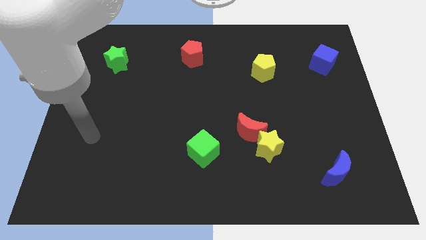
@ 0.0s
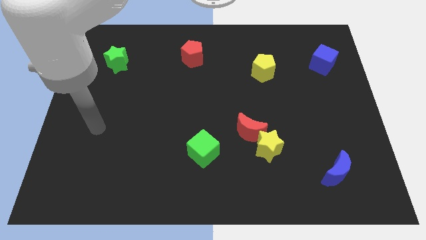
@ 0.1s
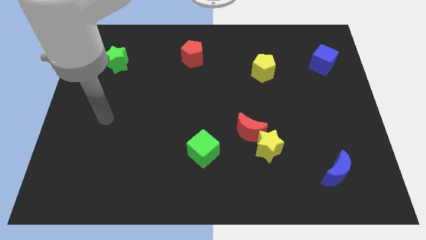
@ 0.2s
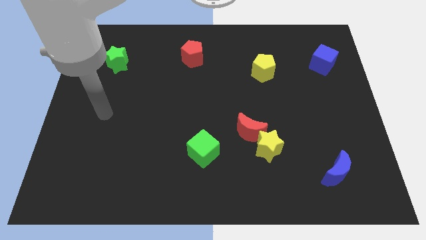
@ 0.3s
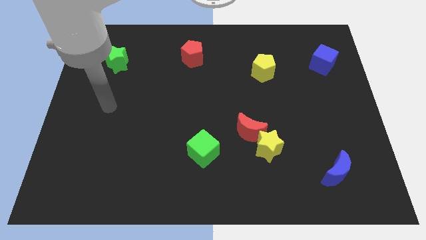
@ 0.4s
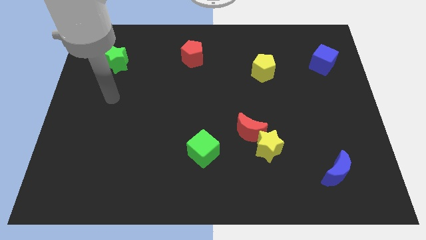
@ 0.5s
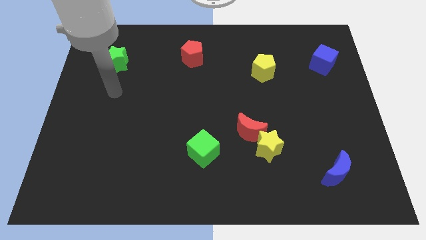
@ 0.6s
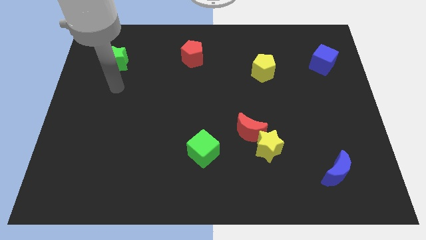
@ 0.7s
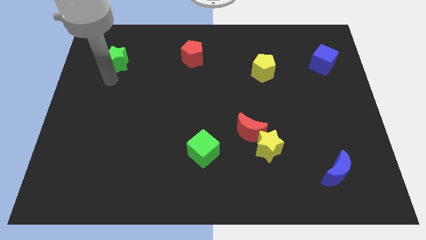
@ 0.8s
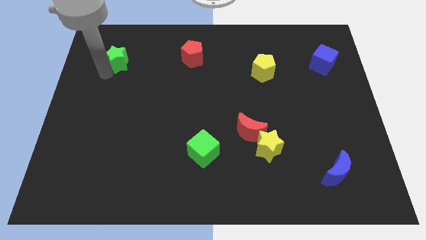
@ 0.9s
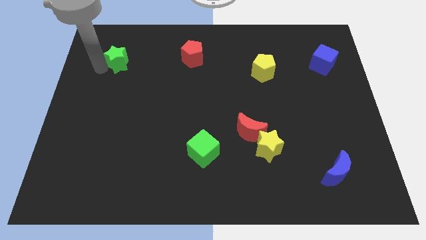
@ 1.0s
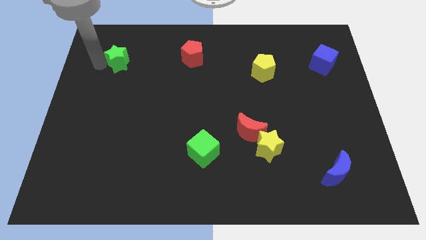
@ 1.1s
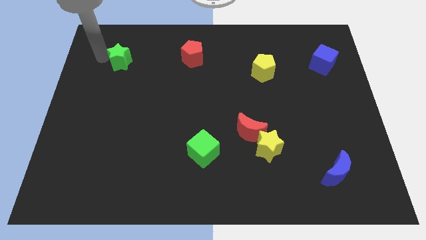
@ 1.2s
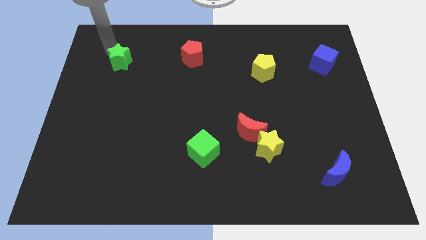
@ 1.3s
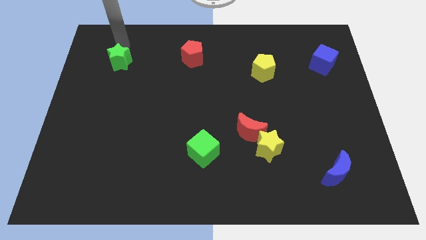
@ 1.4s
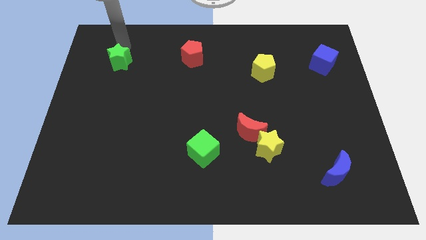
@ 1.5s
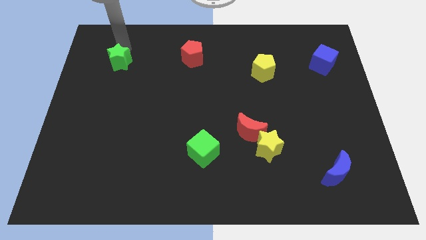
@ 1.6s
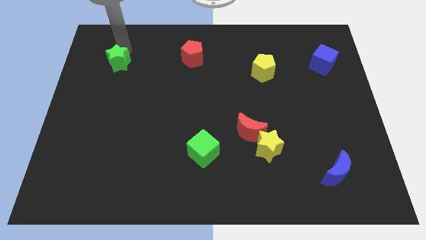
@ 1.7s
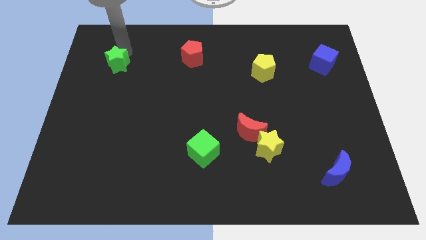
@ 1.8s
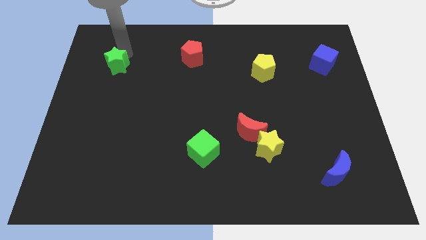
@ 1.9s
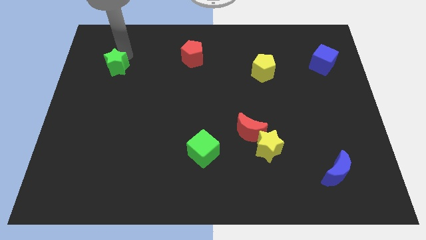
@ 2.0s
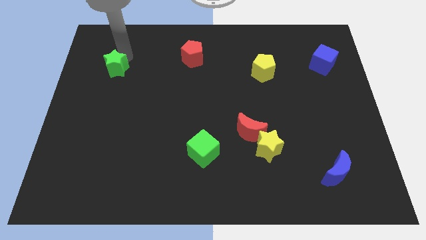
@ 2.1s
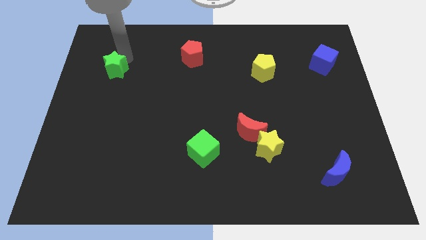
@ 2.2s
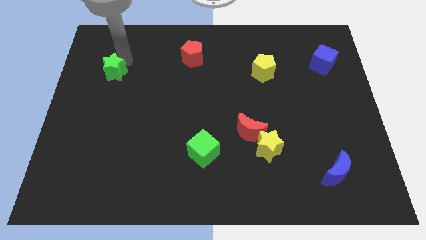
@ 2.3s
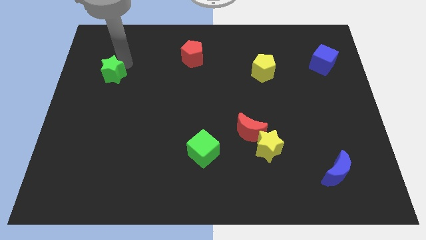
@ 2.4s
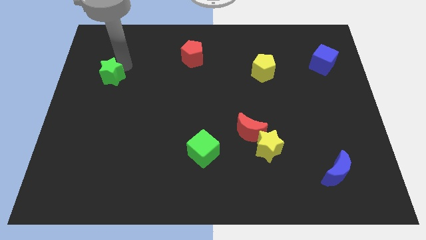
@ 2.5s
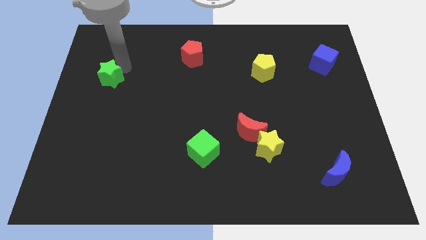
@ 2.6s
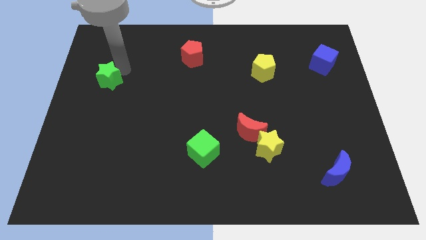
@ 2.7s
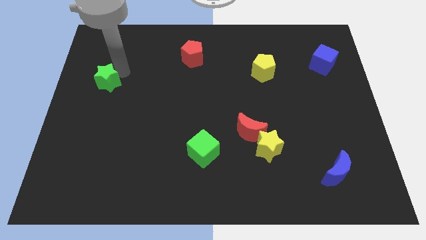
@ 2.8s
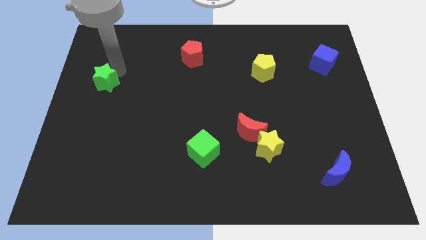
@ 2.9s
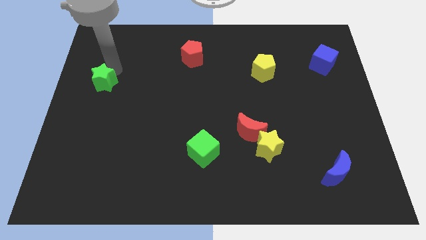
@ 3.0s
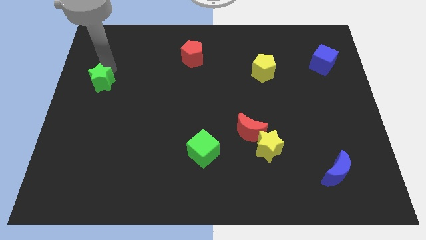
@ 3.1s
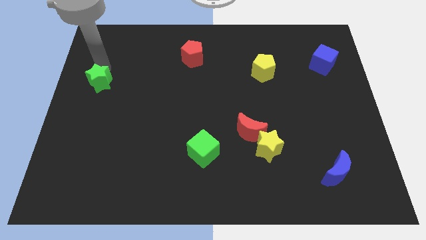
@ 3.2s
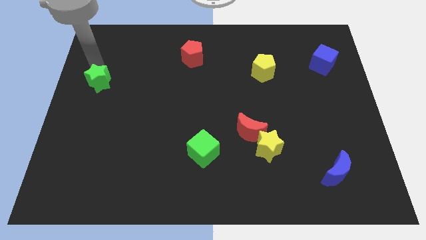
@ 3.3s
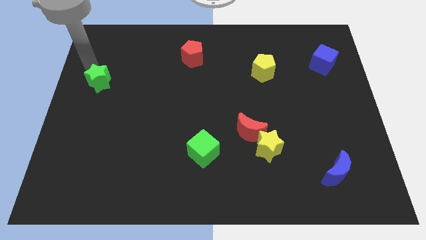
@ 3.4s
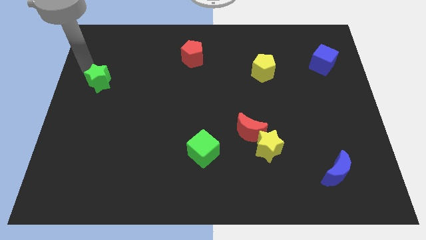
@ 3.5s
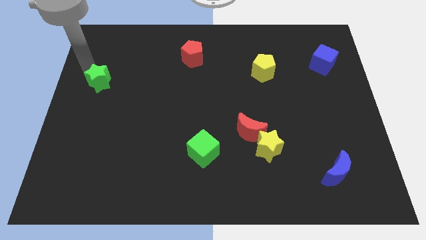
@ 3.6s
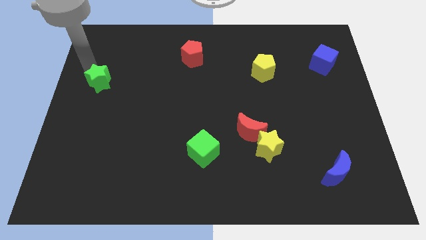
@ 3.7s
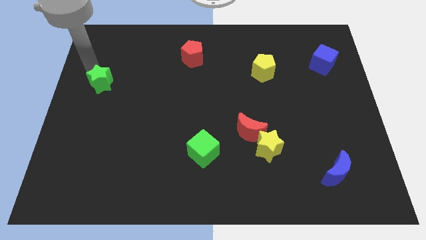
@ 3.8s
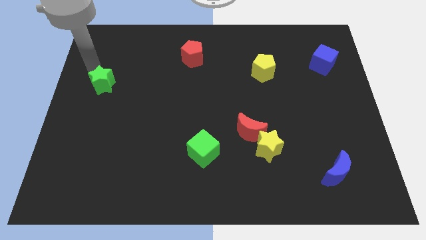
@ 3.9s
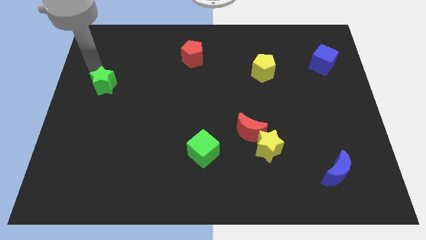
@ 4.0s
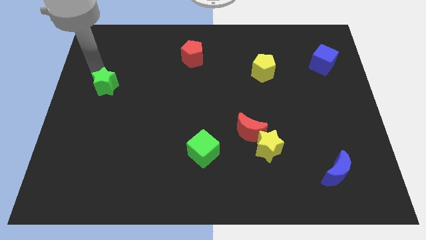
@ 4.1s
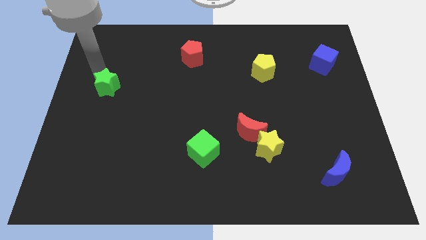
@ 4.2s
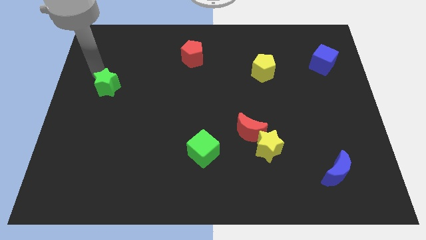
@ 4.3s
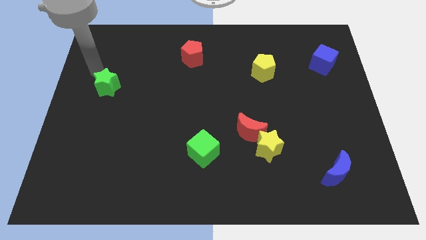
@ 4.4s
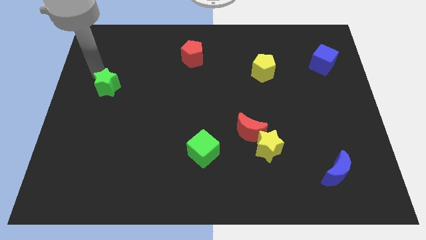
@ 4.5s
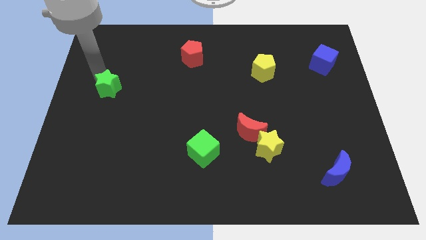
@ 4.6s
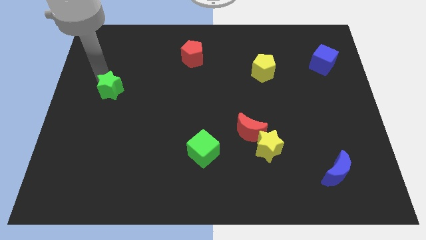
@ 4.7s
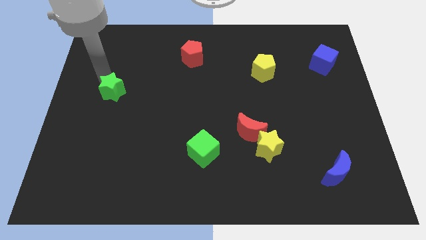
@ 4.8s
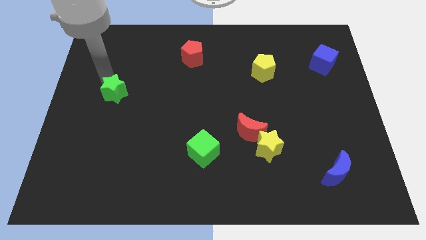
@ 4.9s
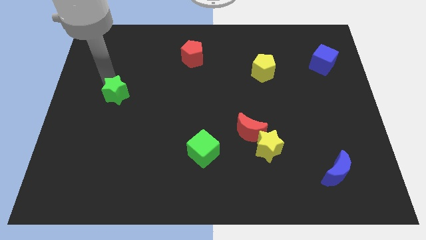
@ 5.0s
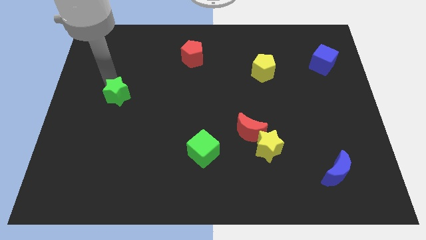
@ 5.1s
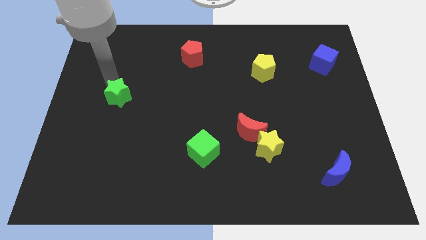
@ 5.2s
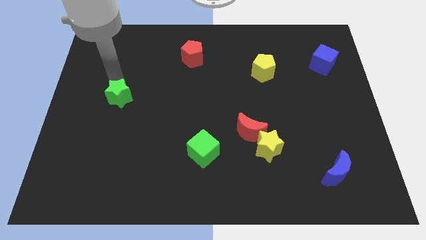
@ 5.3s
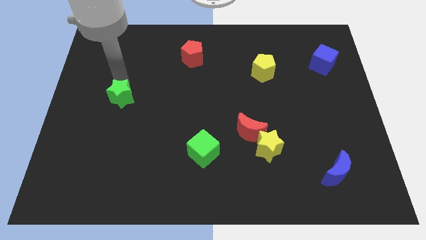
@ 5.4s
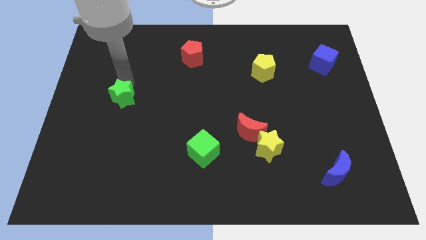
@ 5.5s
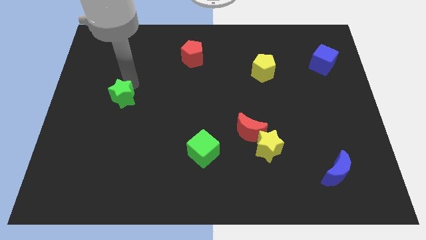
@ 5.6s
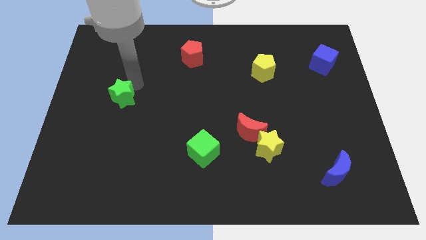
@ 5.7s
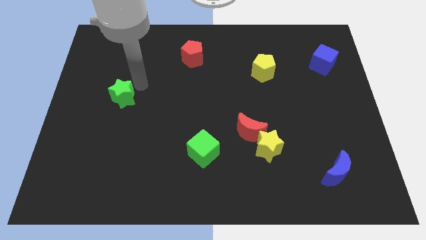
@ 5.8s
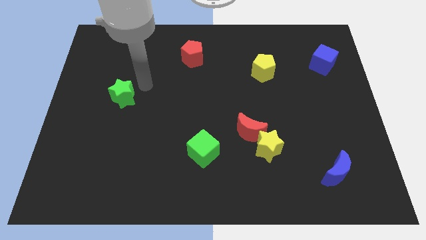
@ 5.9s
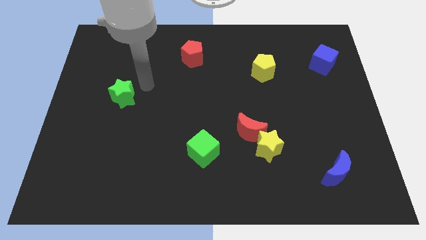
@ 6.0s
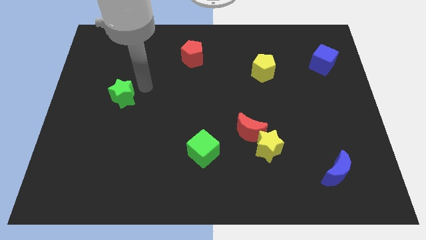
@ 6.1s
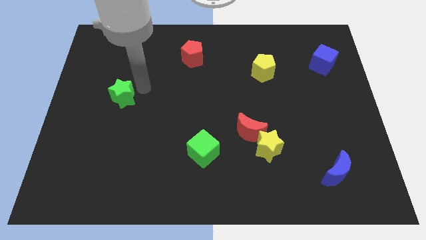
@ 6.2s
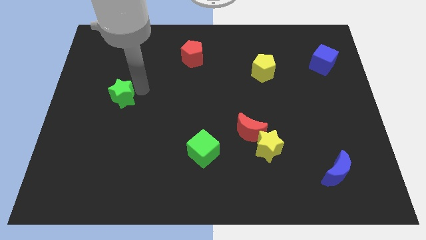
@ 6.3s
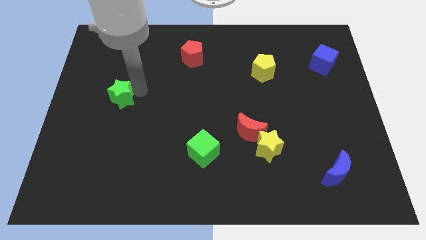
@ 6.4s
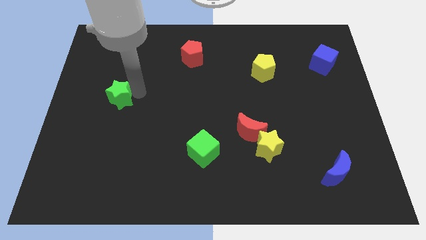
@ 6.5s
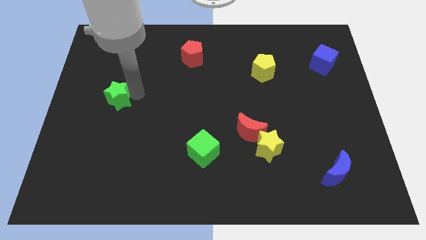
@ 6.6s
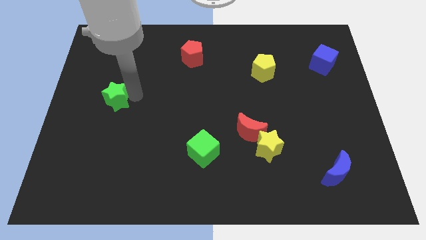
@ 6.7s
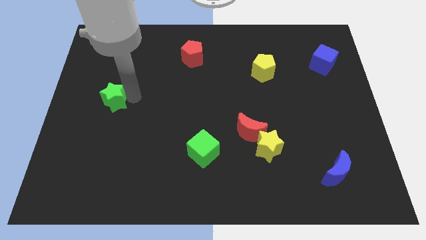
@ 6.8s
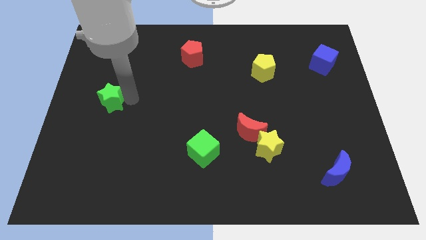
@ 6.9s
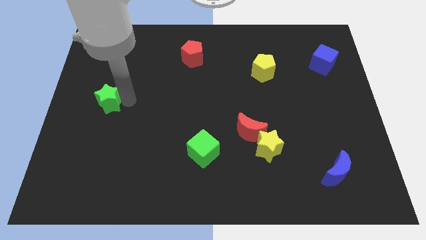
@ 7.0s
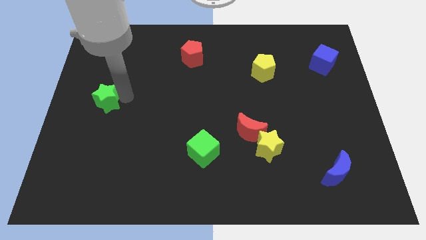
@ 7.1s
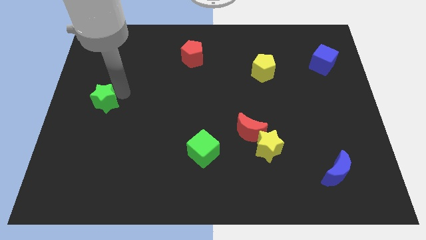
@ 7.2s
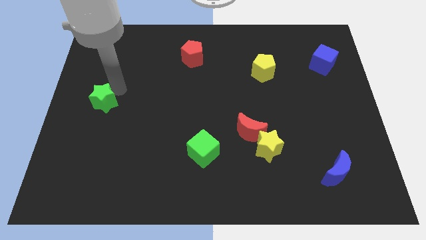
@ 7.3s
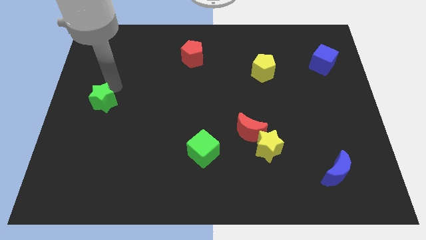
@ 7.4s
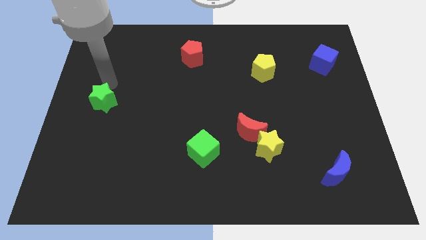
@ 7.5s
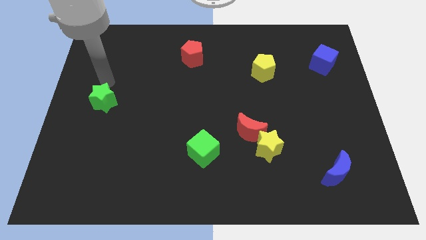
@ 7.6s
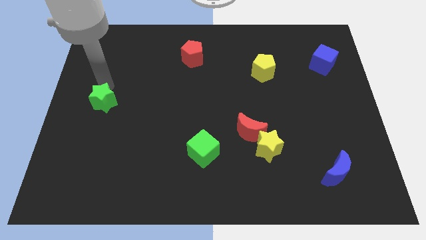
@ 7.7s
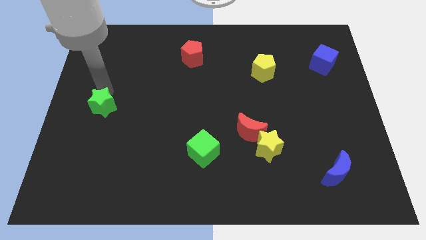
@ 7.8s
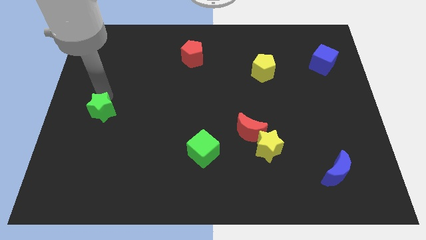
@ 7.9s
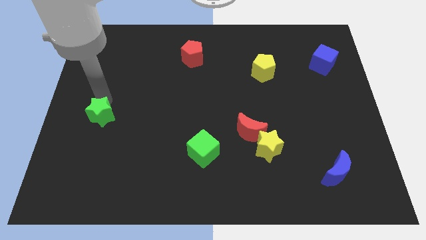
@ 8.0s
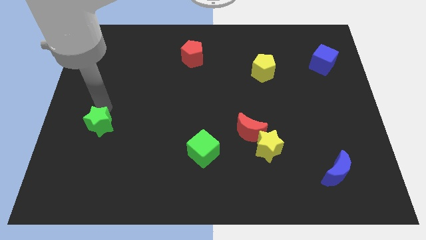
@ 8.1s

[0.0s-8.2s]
push the green star down

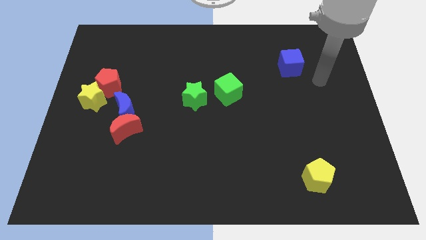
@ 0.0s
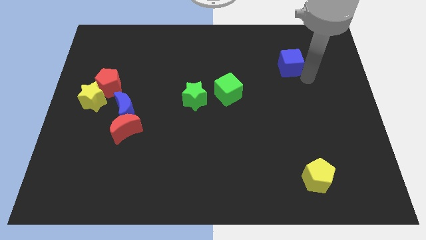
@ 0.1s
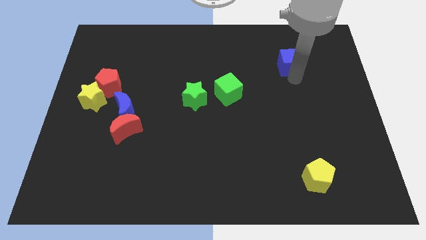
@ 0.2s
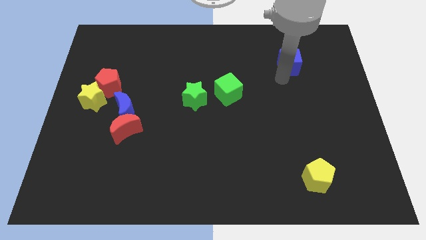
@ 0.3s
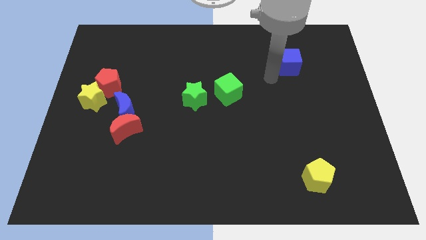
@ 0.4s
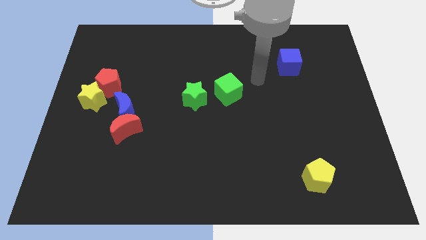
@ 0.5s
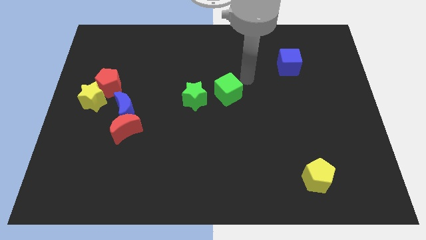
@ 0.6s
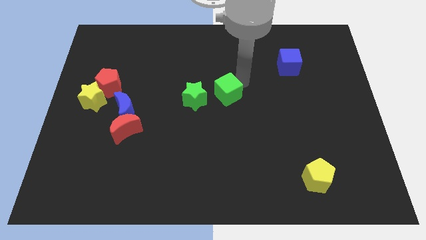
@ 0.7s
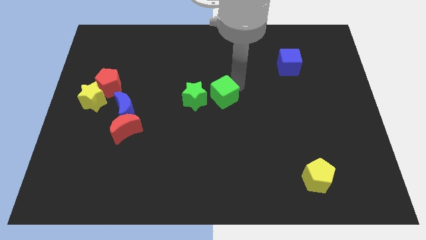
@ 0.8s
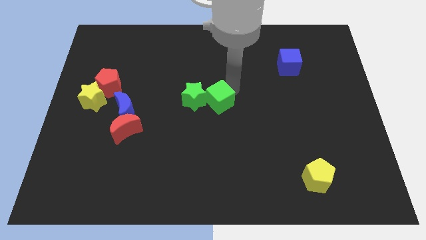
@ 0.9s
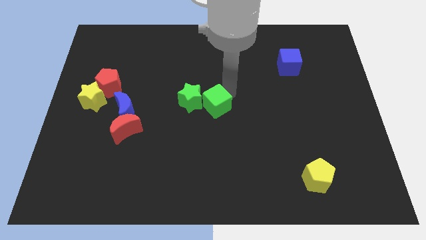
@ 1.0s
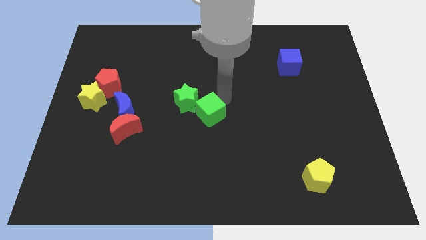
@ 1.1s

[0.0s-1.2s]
slightly push the green cube down and left
